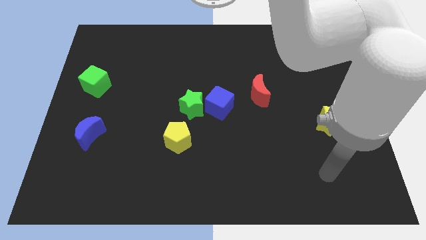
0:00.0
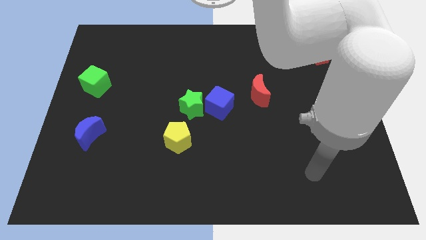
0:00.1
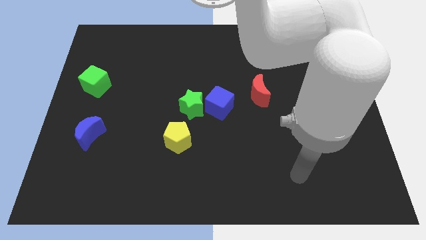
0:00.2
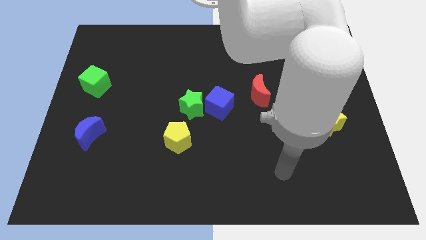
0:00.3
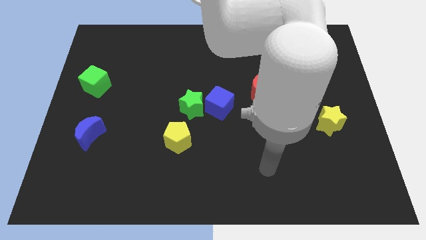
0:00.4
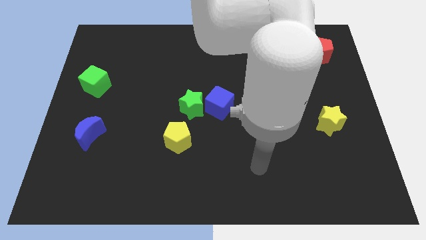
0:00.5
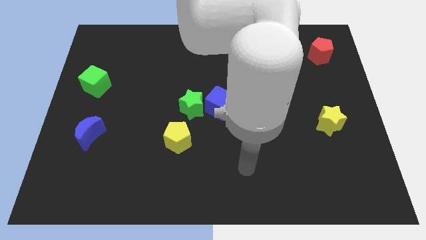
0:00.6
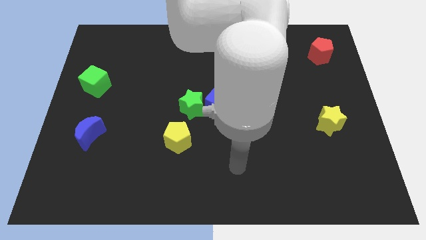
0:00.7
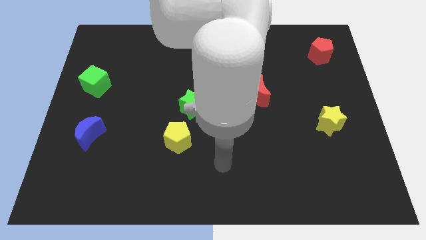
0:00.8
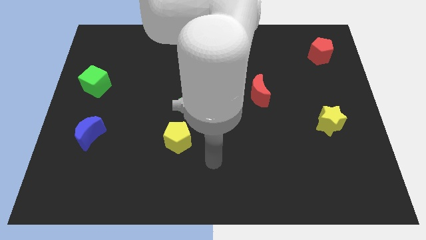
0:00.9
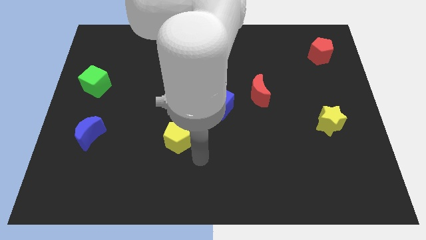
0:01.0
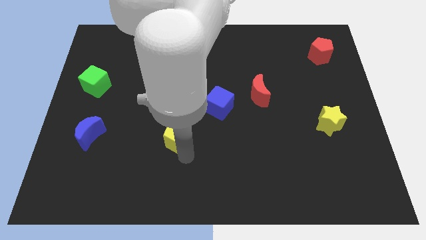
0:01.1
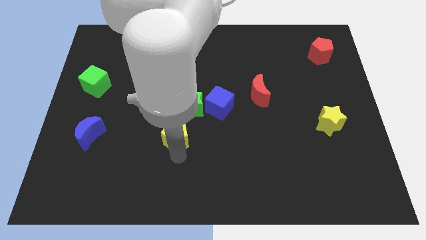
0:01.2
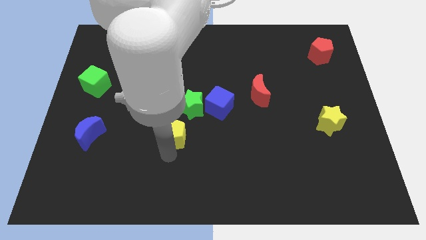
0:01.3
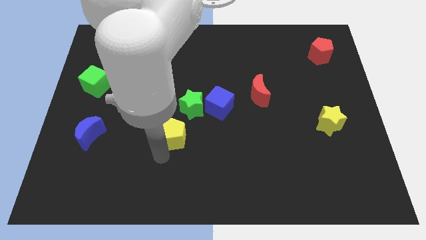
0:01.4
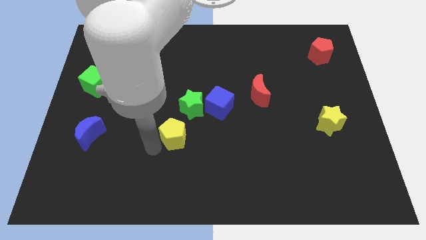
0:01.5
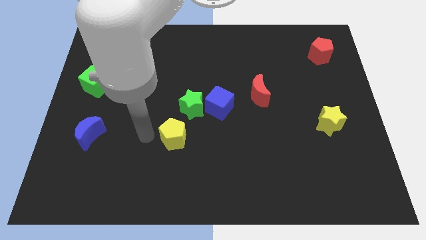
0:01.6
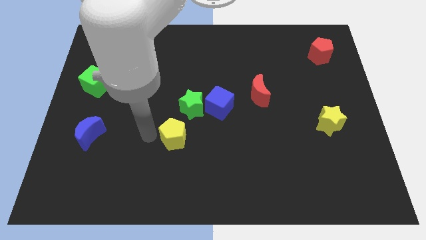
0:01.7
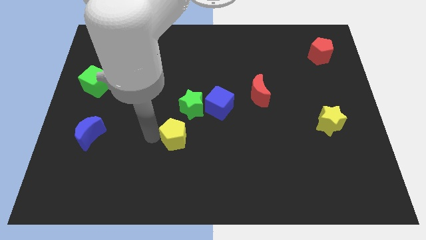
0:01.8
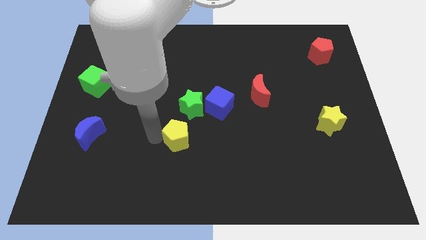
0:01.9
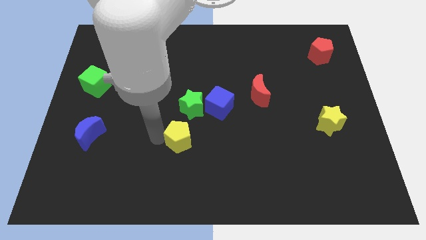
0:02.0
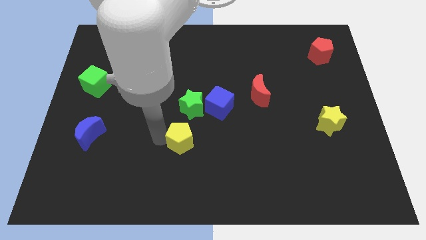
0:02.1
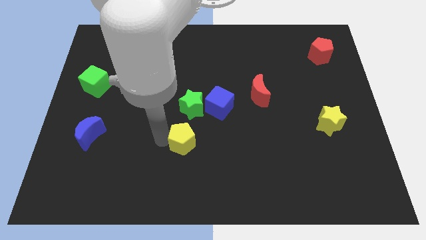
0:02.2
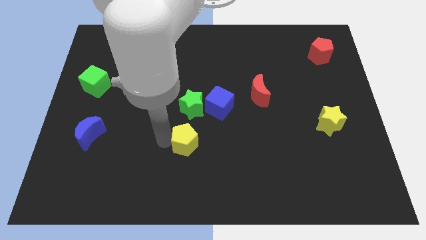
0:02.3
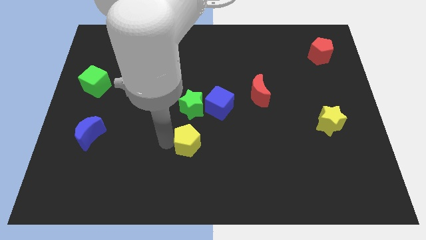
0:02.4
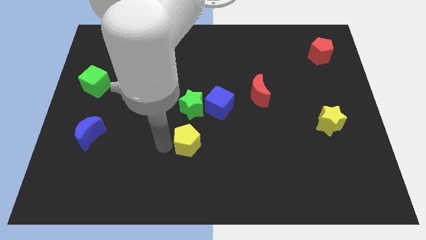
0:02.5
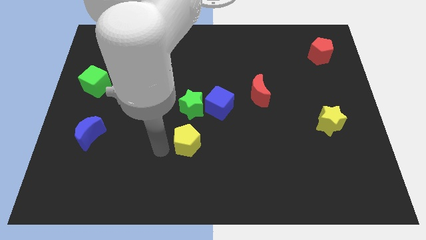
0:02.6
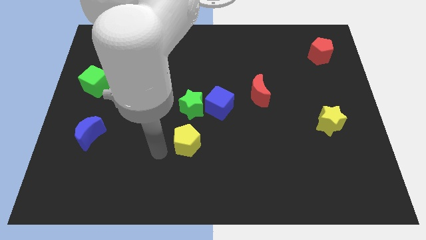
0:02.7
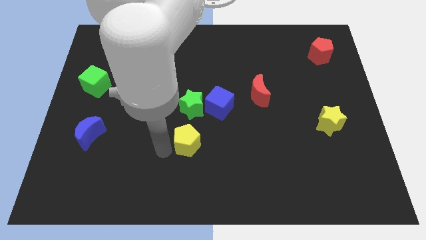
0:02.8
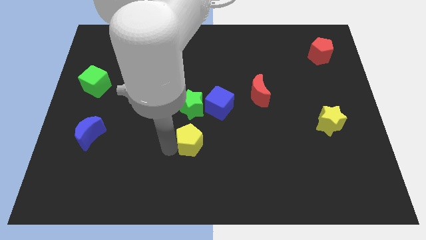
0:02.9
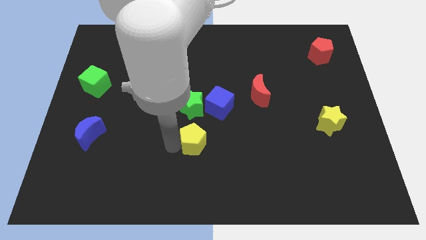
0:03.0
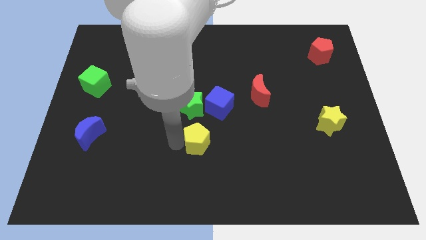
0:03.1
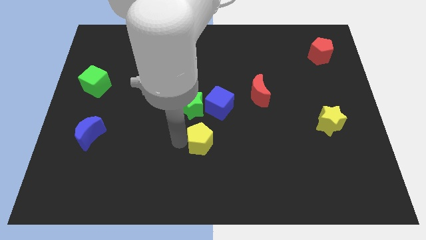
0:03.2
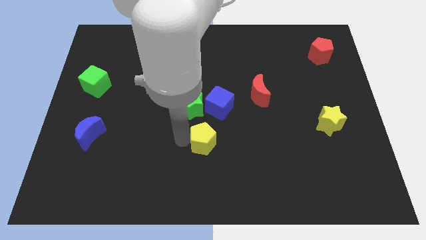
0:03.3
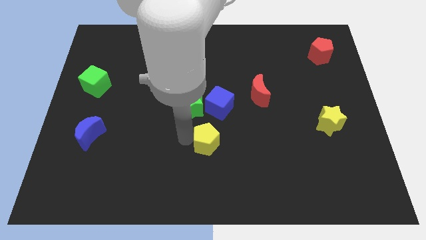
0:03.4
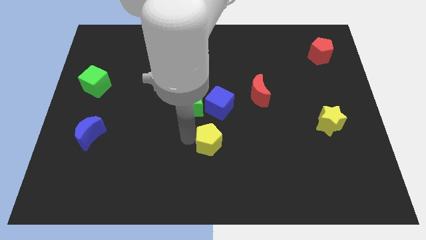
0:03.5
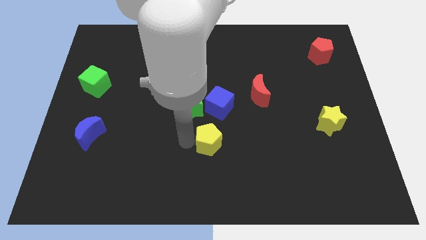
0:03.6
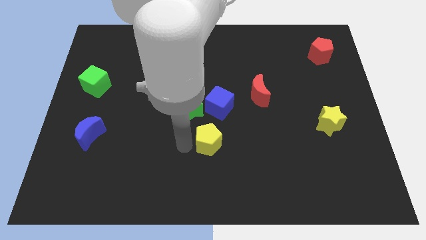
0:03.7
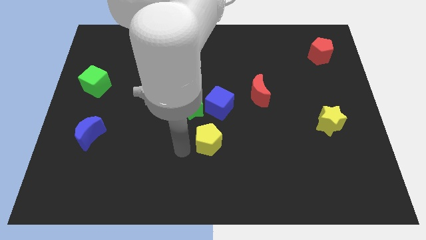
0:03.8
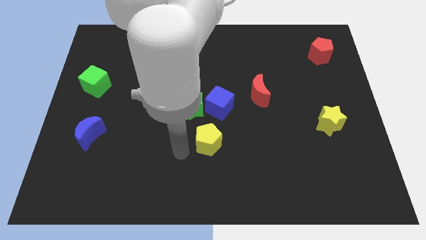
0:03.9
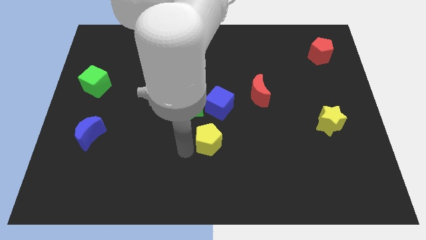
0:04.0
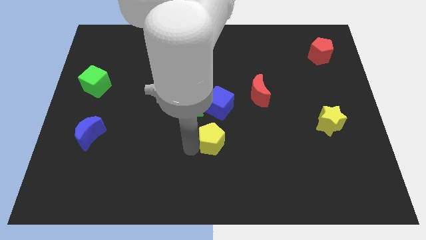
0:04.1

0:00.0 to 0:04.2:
push the yellow pentagon right a little bit

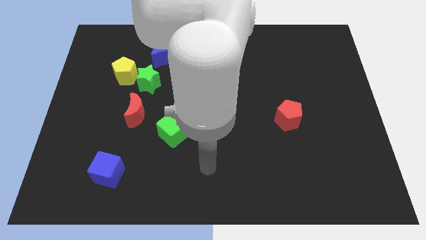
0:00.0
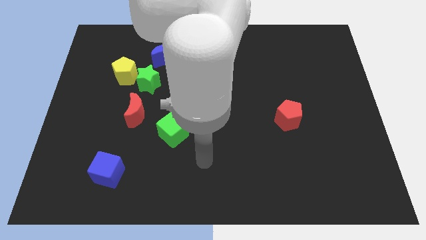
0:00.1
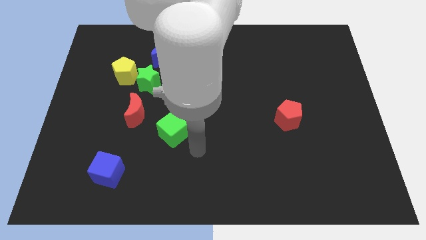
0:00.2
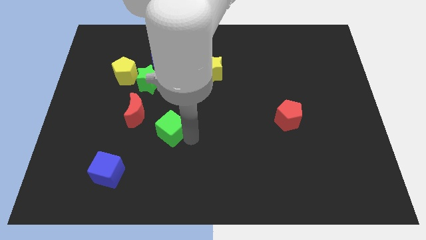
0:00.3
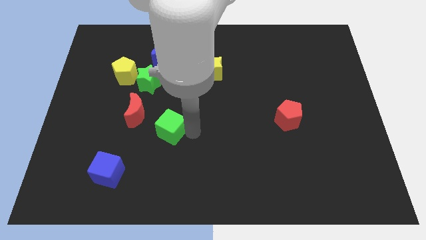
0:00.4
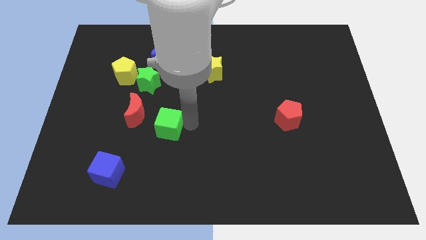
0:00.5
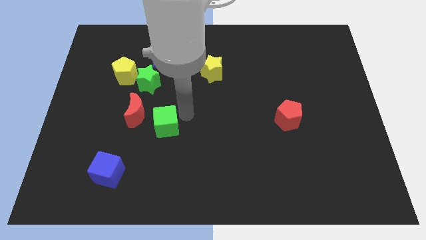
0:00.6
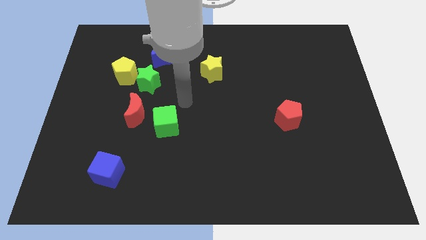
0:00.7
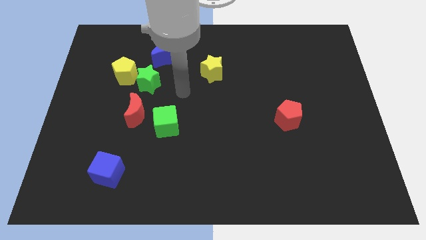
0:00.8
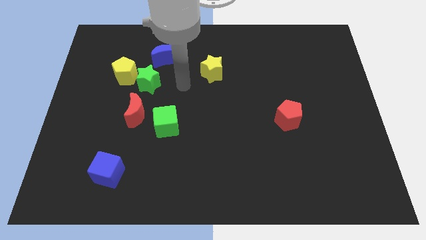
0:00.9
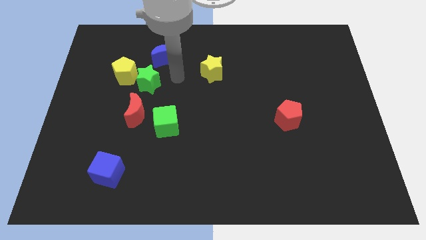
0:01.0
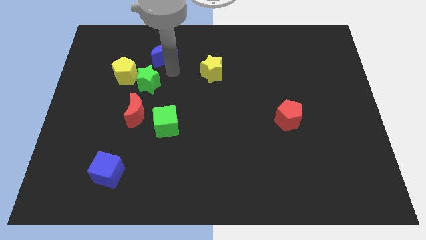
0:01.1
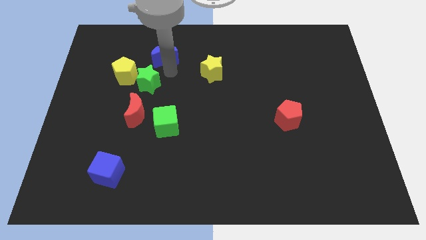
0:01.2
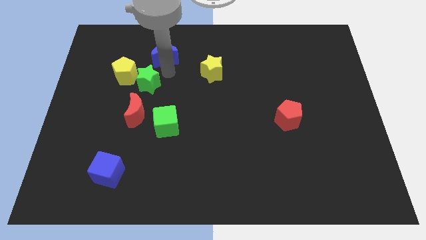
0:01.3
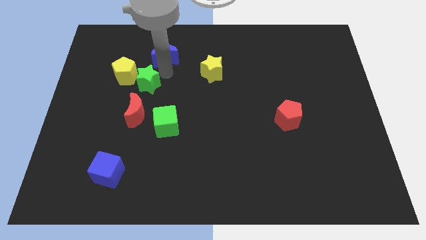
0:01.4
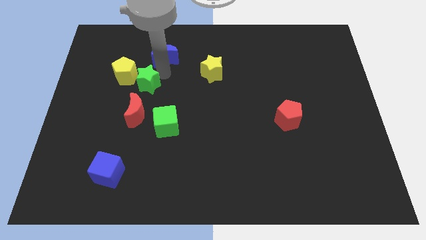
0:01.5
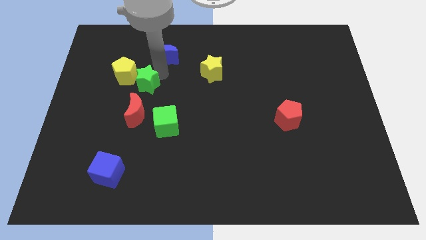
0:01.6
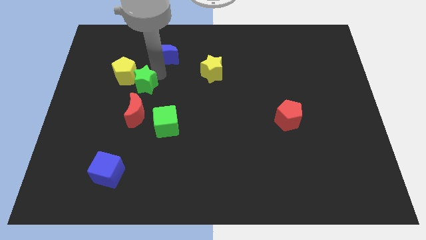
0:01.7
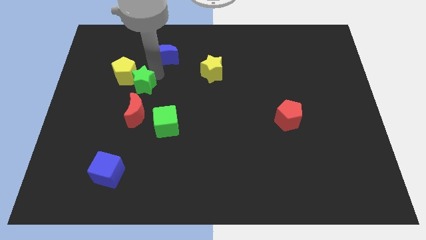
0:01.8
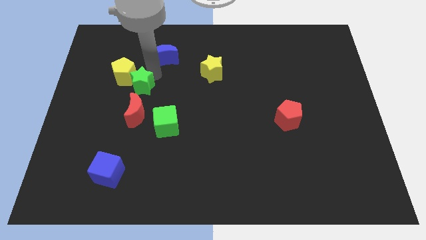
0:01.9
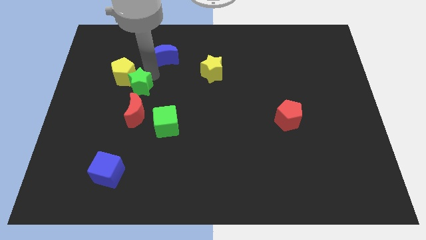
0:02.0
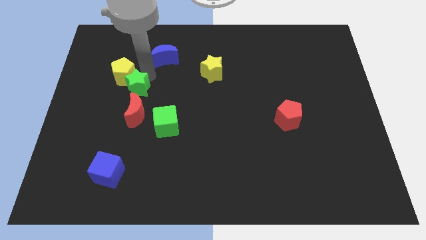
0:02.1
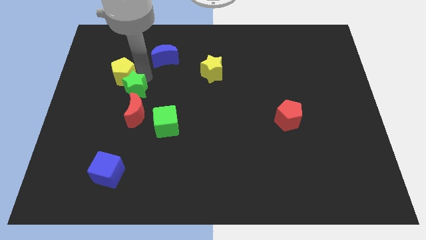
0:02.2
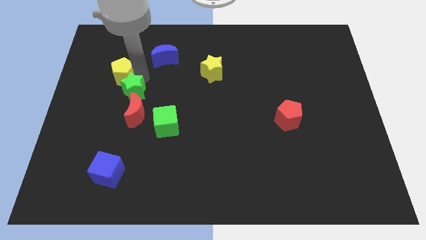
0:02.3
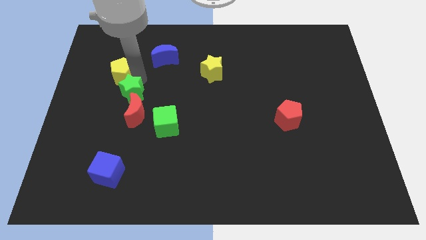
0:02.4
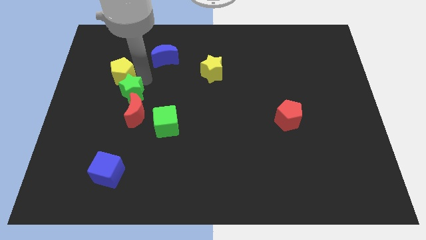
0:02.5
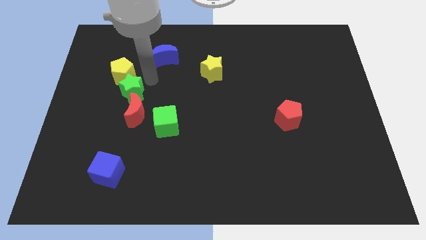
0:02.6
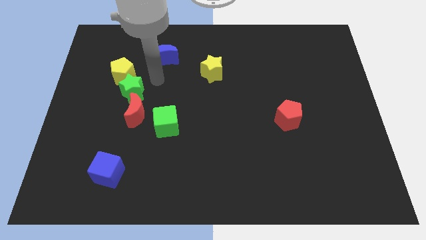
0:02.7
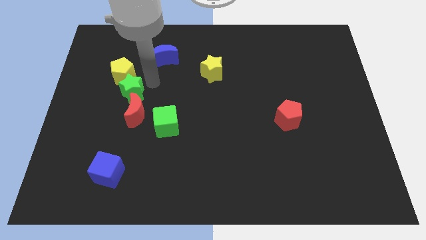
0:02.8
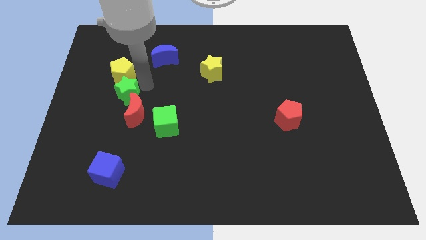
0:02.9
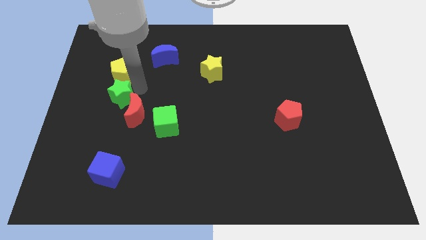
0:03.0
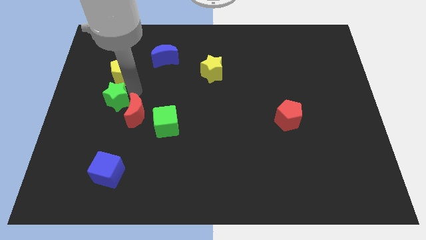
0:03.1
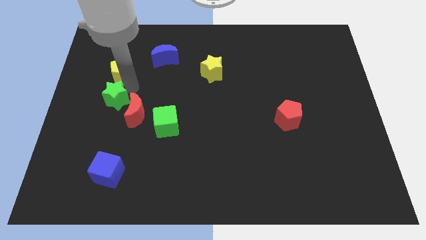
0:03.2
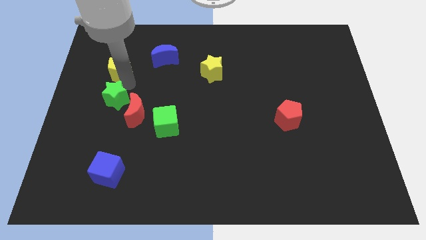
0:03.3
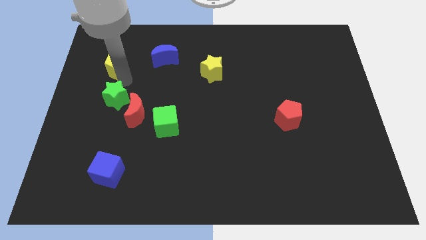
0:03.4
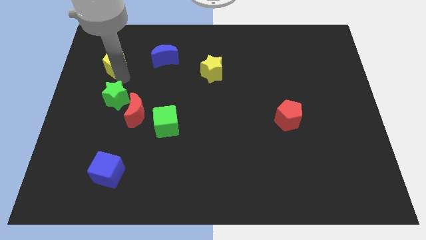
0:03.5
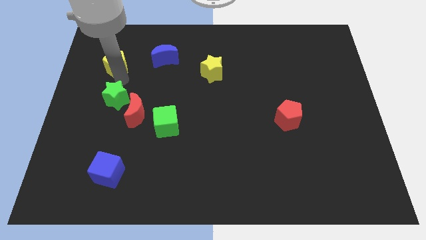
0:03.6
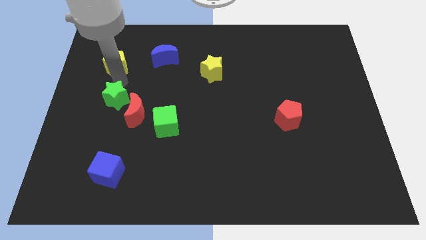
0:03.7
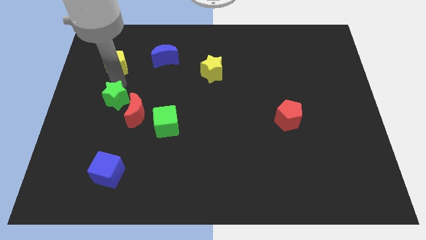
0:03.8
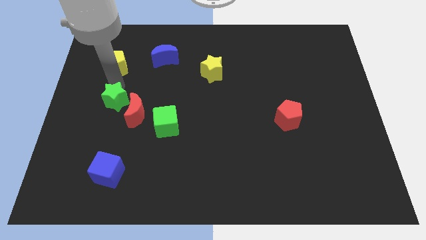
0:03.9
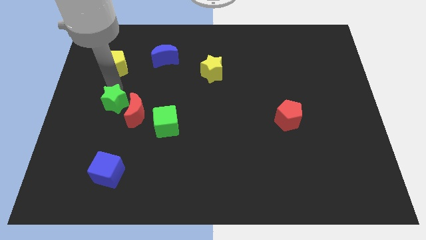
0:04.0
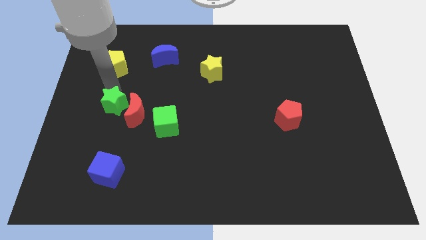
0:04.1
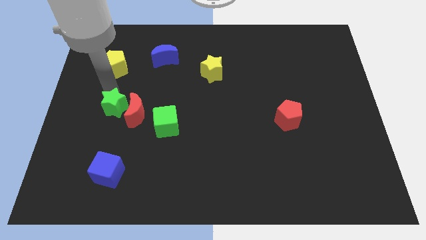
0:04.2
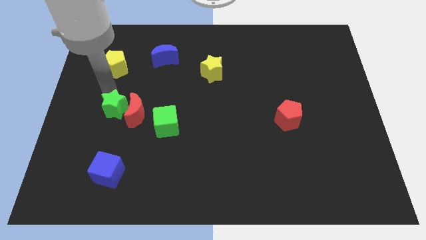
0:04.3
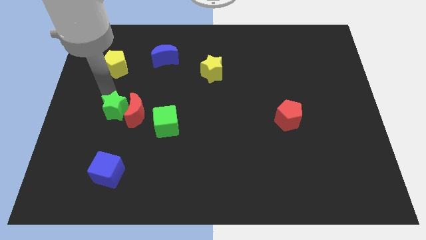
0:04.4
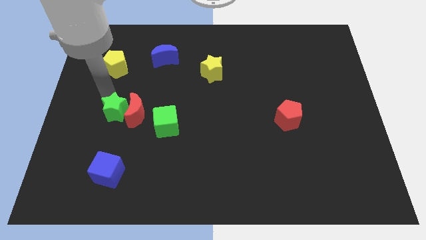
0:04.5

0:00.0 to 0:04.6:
move the green star a little bit downwards
